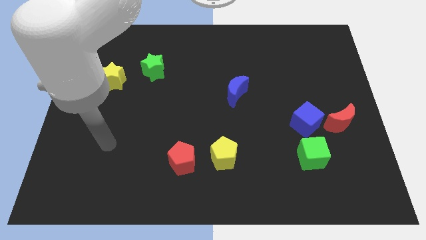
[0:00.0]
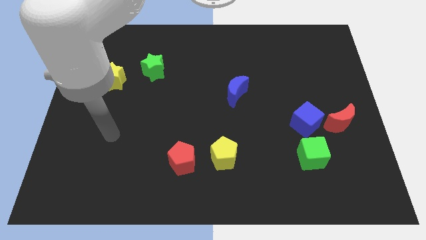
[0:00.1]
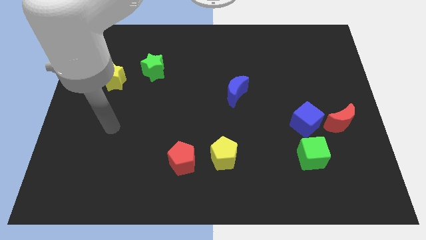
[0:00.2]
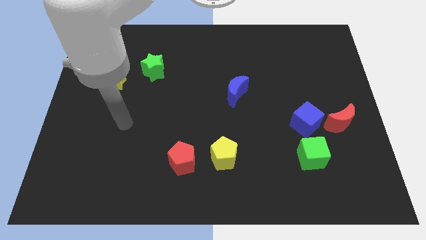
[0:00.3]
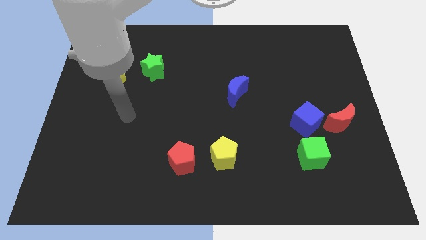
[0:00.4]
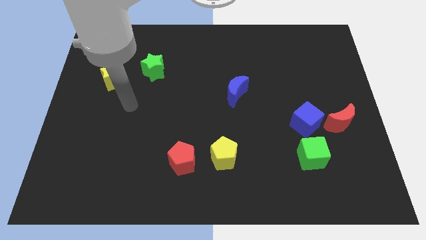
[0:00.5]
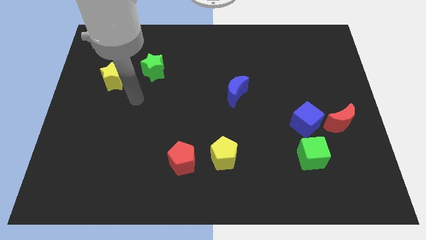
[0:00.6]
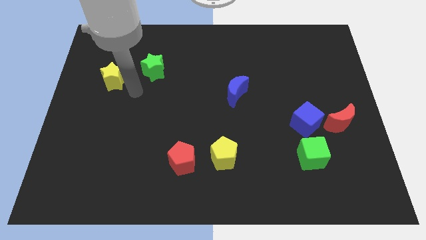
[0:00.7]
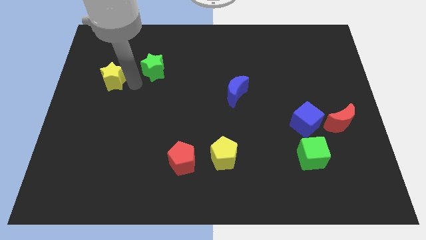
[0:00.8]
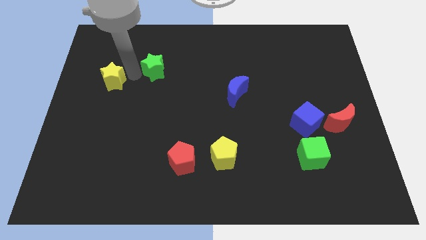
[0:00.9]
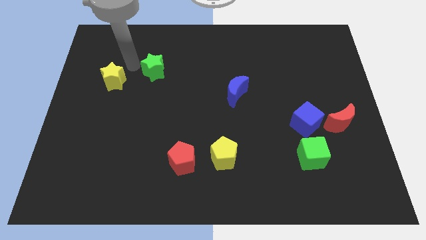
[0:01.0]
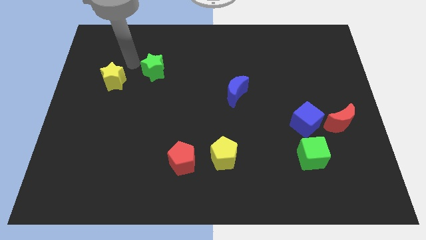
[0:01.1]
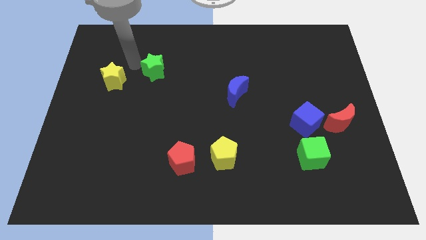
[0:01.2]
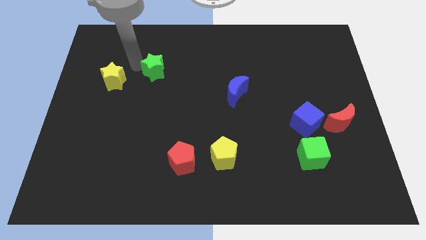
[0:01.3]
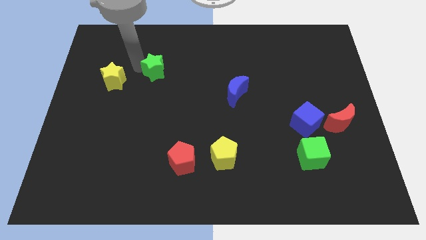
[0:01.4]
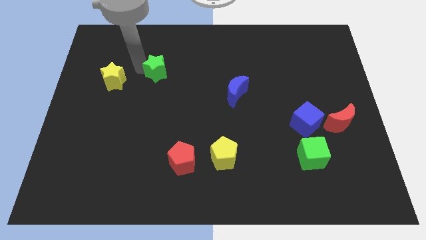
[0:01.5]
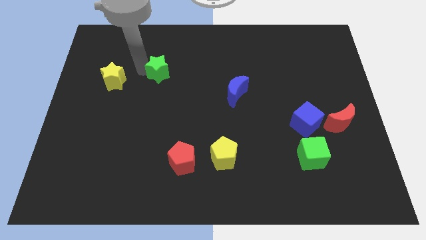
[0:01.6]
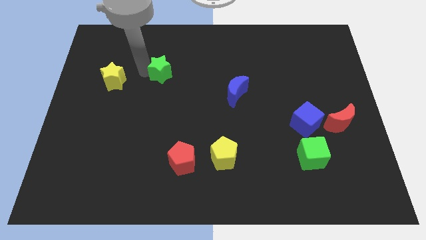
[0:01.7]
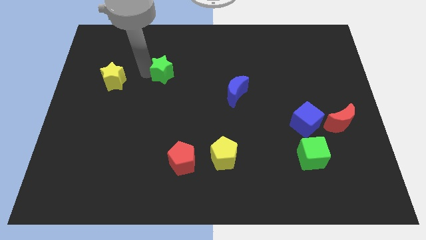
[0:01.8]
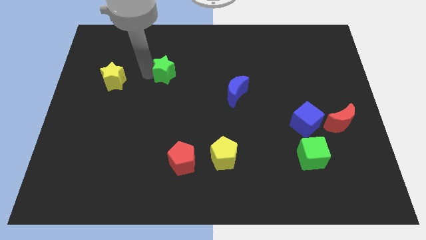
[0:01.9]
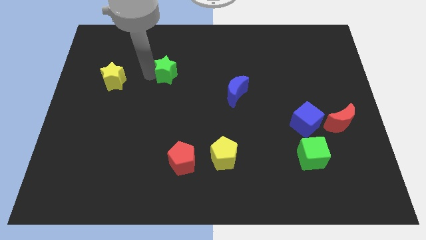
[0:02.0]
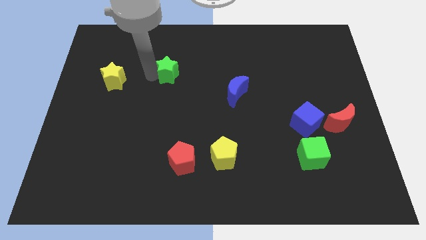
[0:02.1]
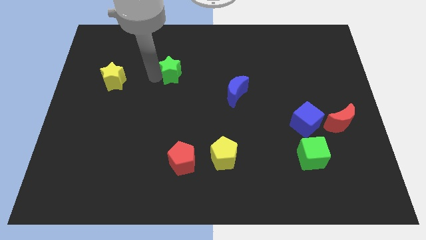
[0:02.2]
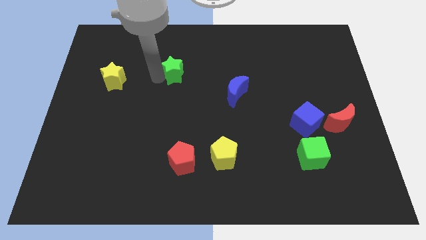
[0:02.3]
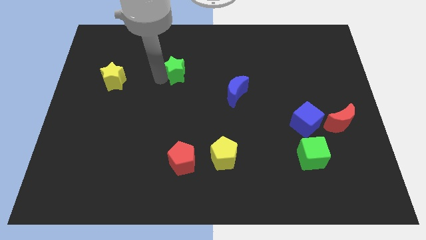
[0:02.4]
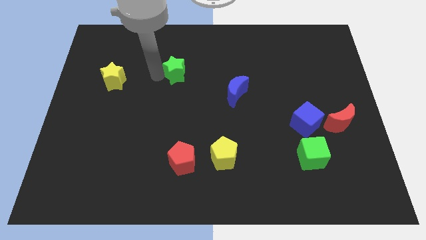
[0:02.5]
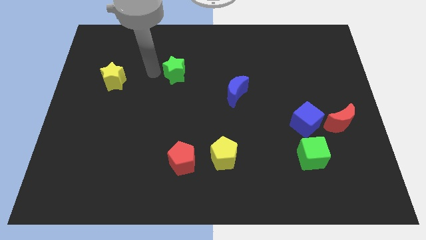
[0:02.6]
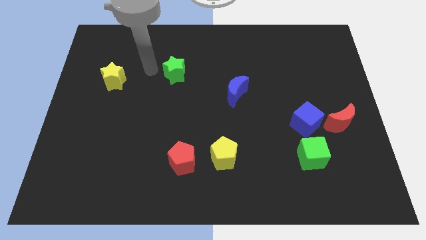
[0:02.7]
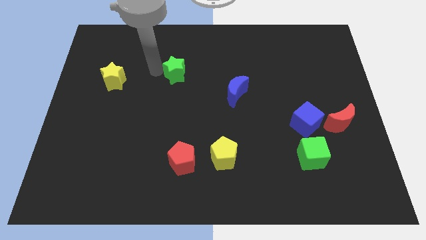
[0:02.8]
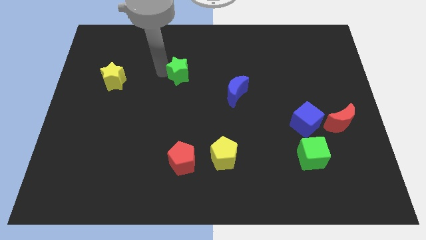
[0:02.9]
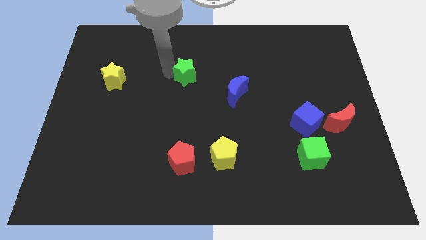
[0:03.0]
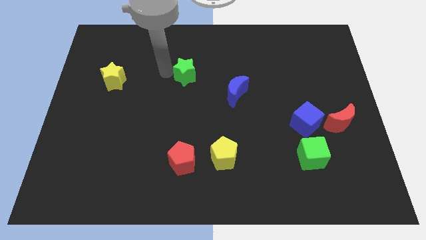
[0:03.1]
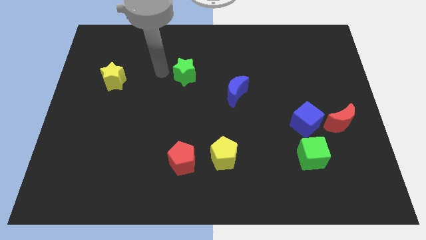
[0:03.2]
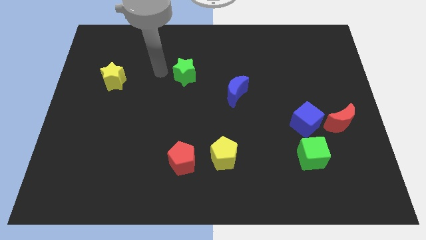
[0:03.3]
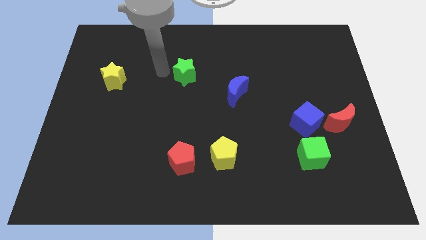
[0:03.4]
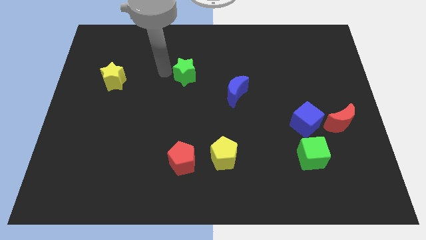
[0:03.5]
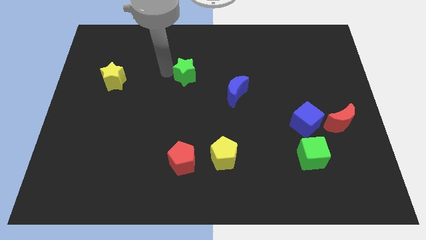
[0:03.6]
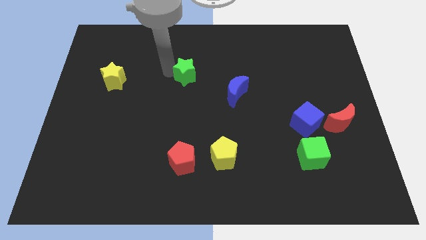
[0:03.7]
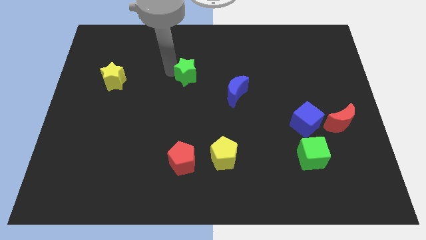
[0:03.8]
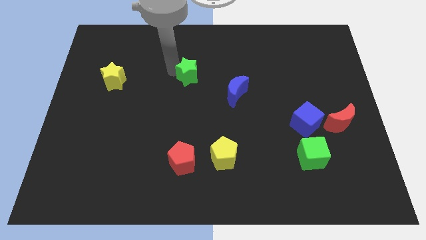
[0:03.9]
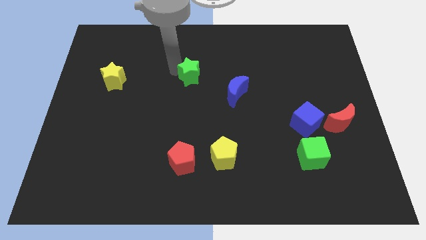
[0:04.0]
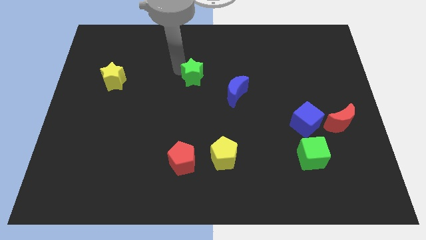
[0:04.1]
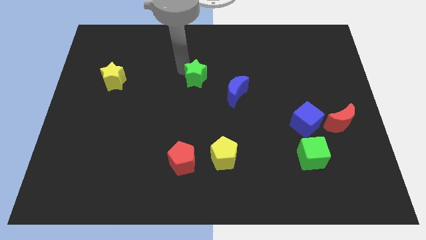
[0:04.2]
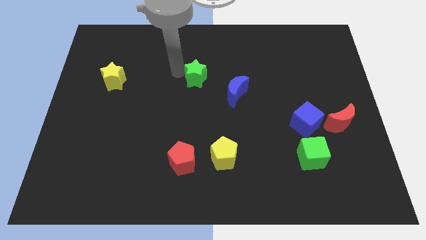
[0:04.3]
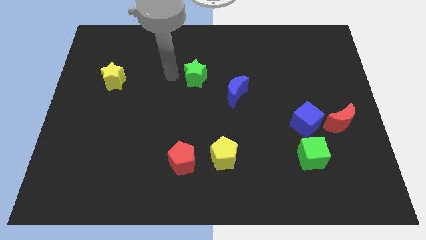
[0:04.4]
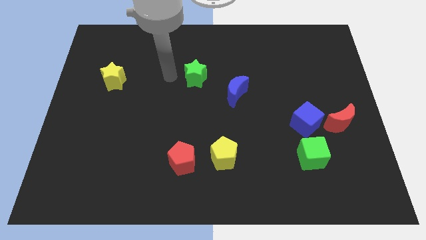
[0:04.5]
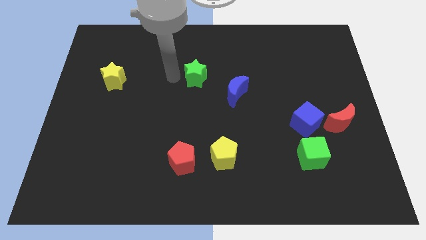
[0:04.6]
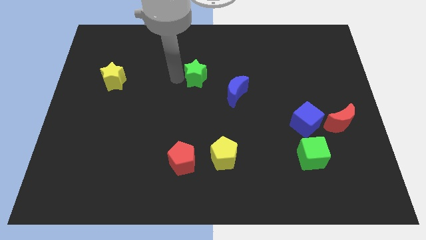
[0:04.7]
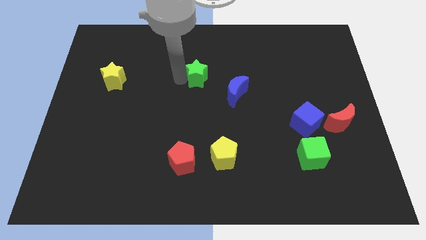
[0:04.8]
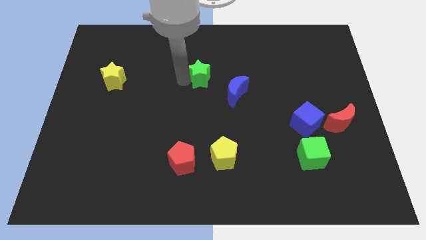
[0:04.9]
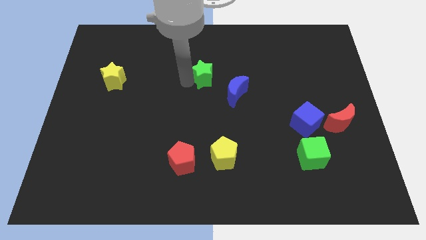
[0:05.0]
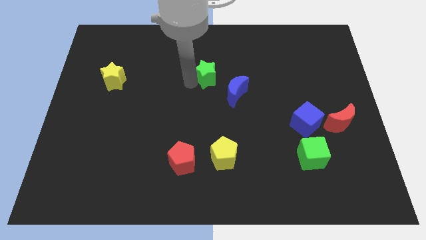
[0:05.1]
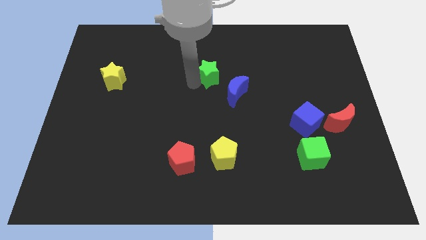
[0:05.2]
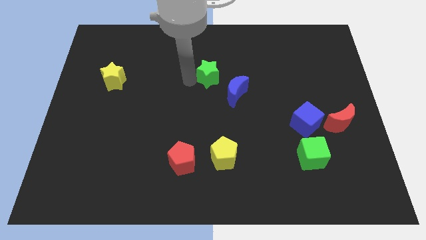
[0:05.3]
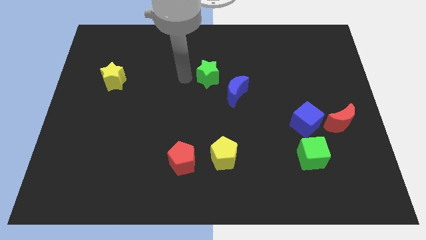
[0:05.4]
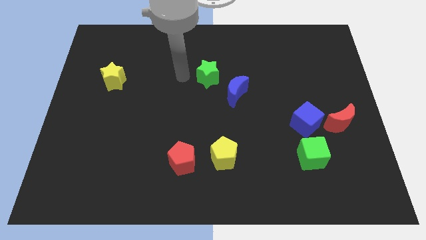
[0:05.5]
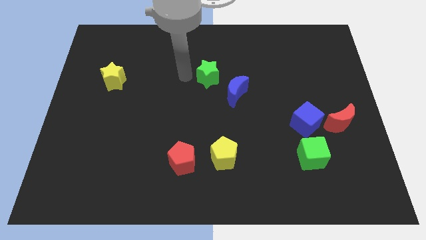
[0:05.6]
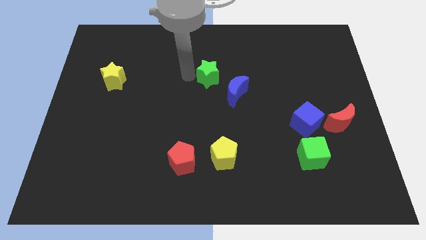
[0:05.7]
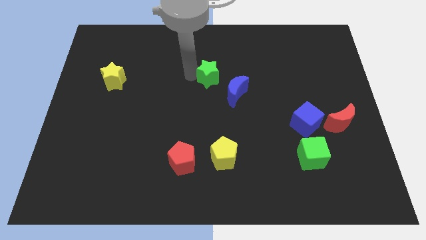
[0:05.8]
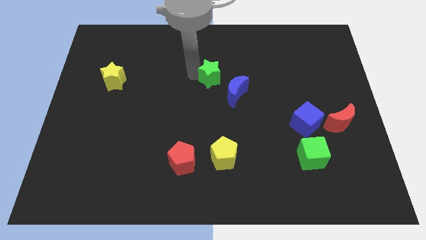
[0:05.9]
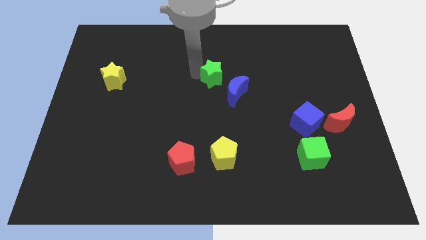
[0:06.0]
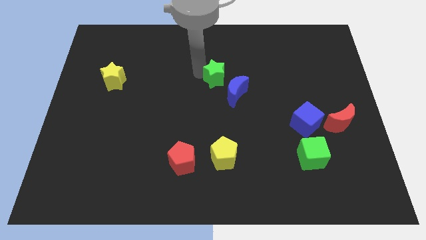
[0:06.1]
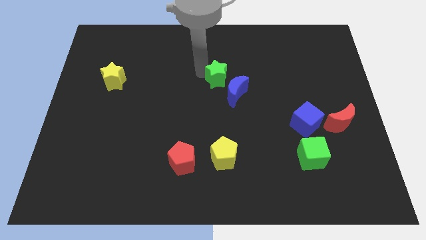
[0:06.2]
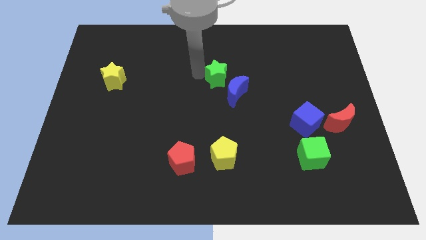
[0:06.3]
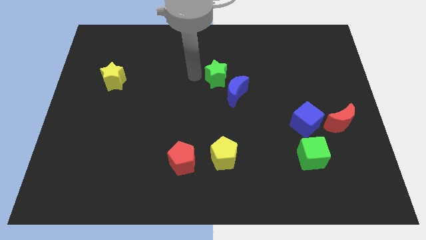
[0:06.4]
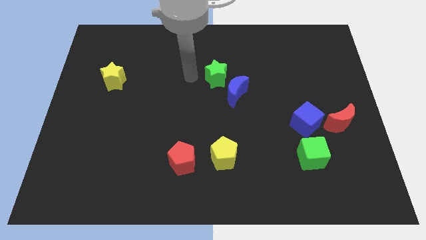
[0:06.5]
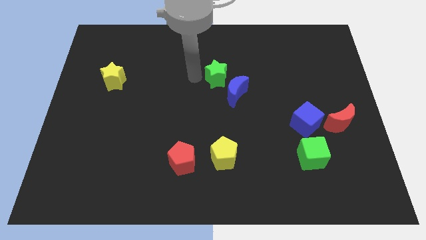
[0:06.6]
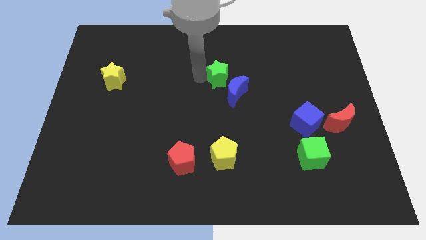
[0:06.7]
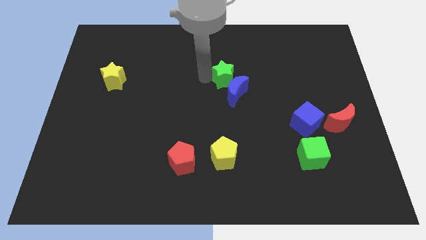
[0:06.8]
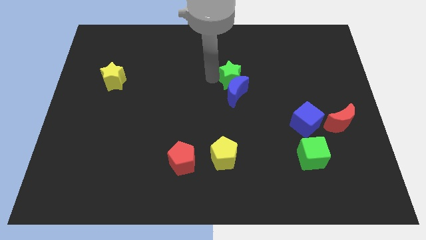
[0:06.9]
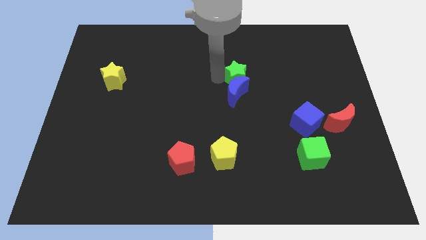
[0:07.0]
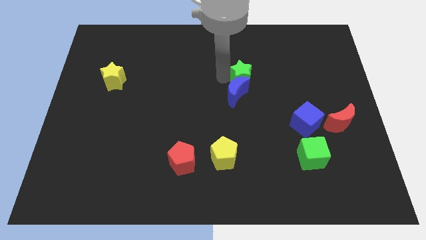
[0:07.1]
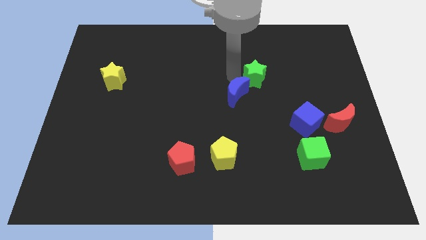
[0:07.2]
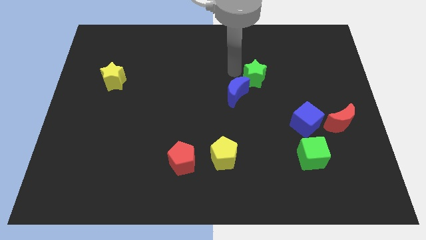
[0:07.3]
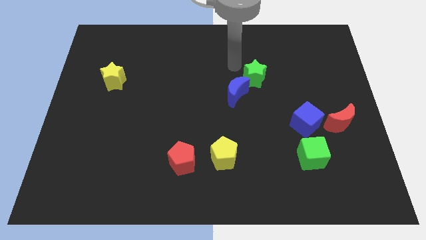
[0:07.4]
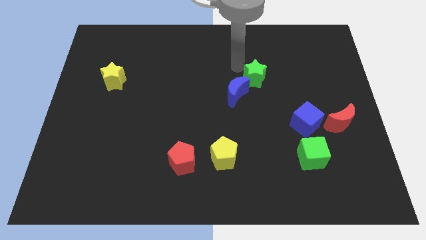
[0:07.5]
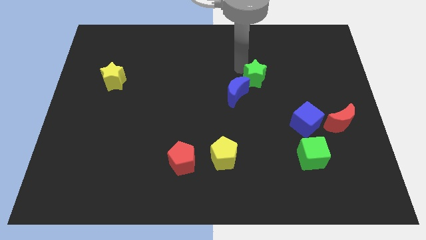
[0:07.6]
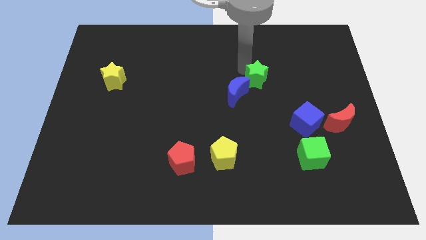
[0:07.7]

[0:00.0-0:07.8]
move the green star just right of the blue moon
